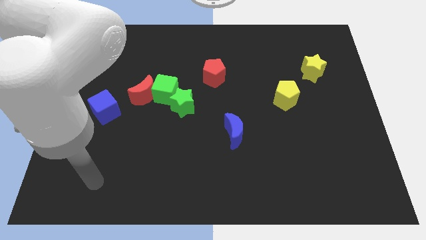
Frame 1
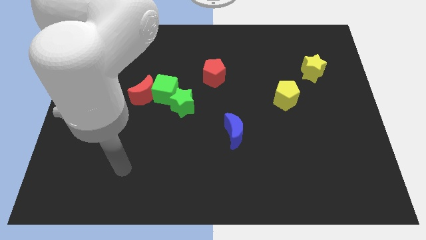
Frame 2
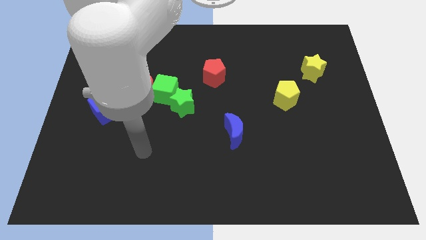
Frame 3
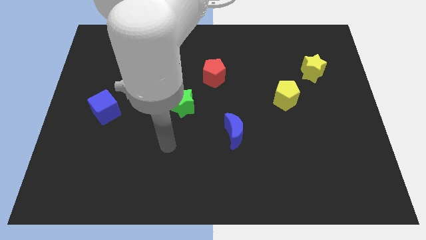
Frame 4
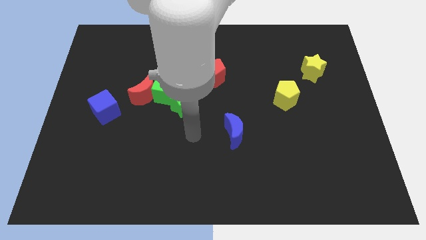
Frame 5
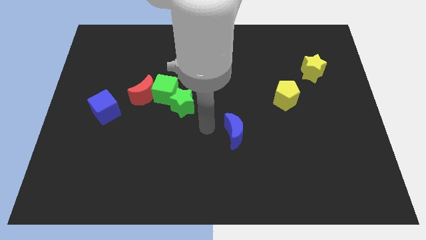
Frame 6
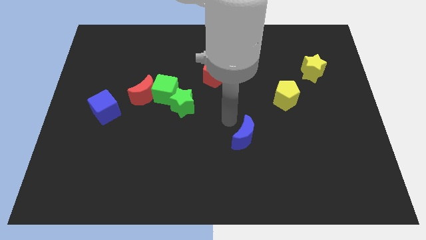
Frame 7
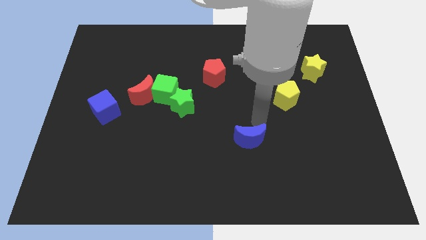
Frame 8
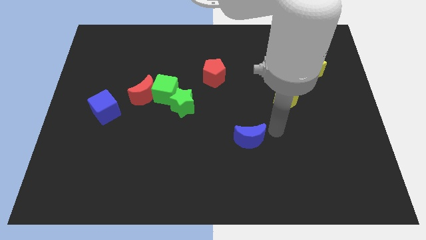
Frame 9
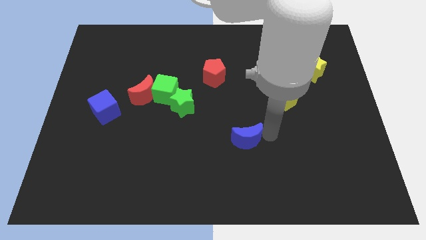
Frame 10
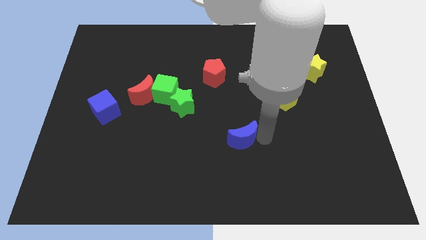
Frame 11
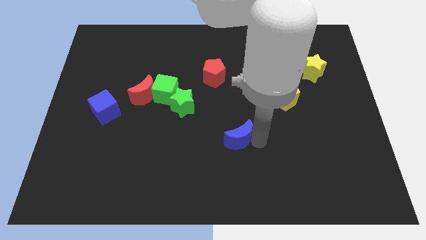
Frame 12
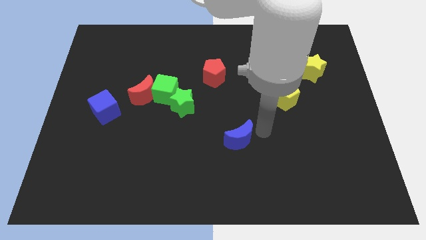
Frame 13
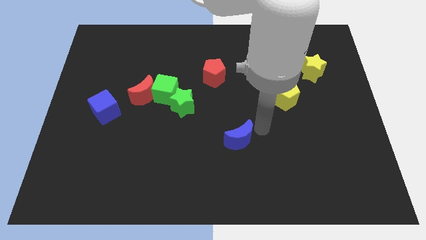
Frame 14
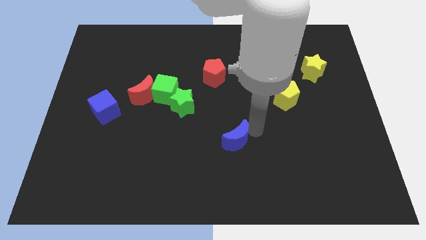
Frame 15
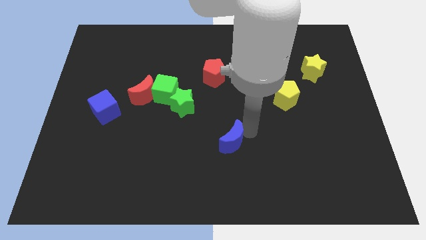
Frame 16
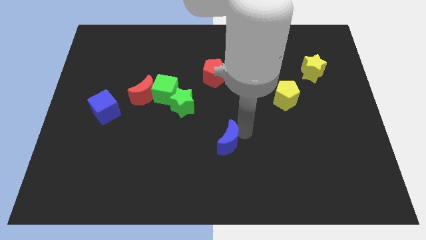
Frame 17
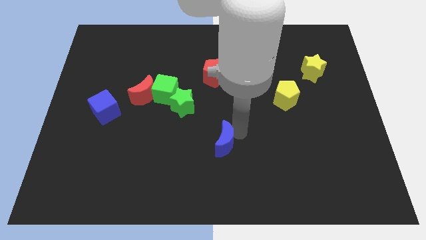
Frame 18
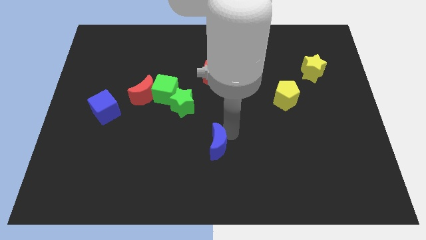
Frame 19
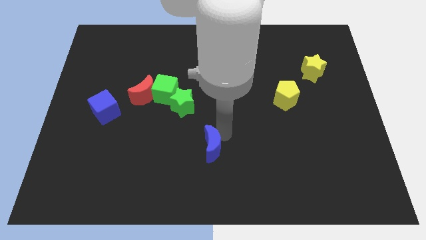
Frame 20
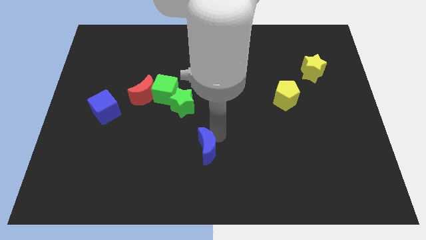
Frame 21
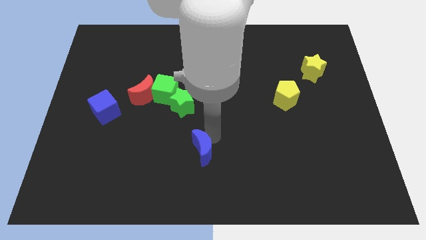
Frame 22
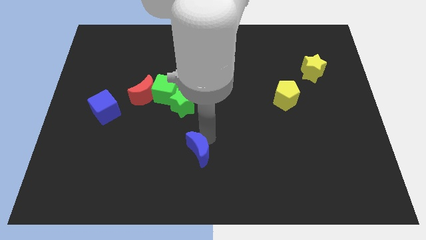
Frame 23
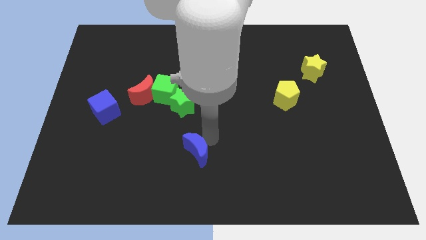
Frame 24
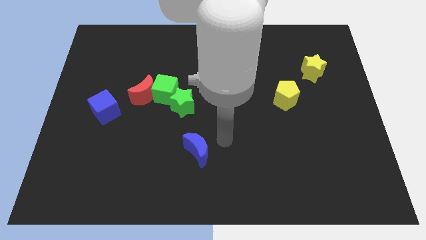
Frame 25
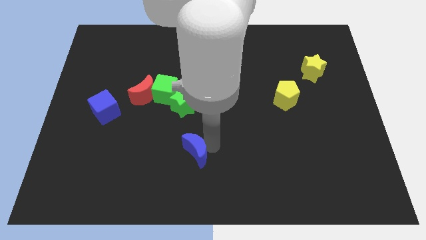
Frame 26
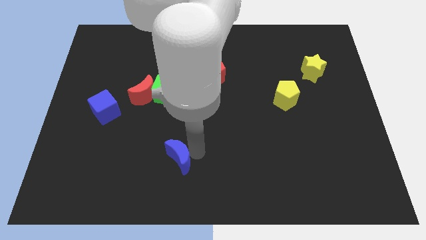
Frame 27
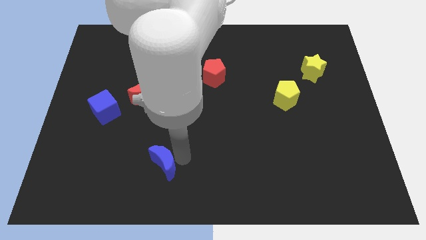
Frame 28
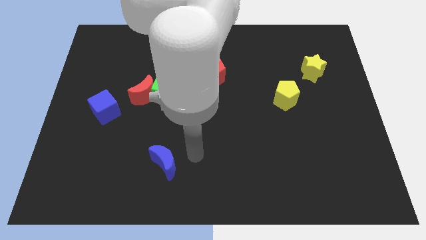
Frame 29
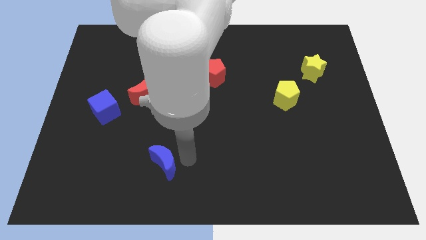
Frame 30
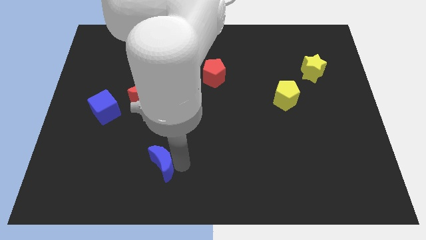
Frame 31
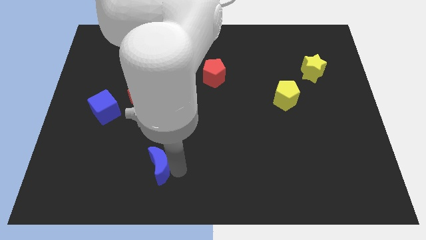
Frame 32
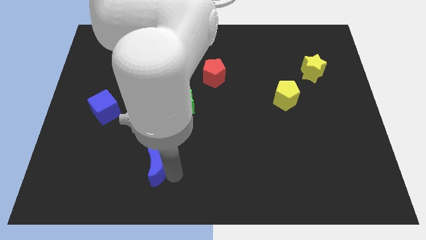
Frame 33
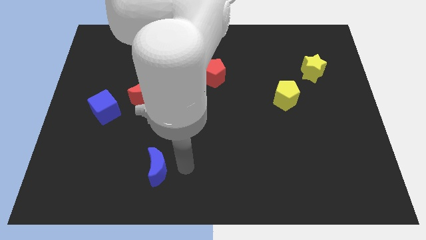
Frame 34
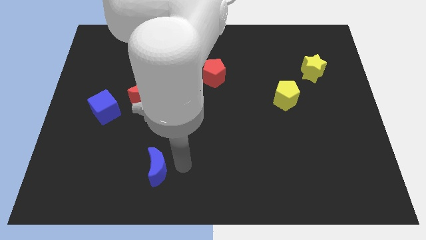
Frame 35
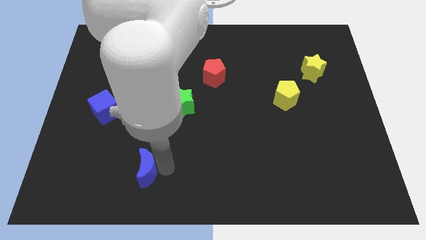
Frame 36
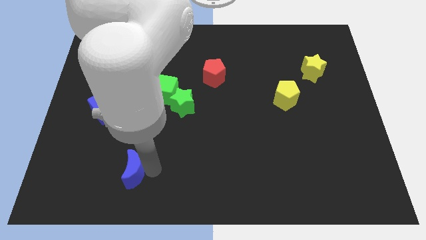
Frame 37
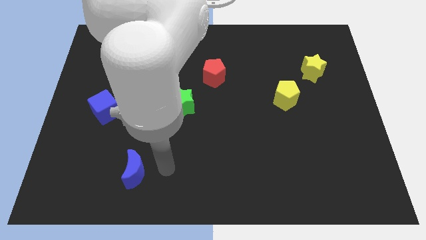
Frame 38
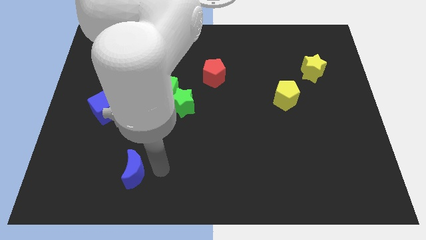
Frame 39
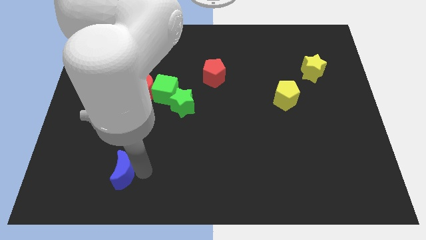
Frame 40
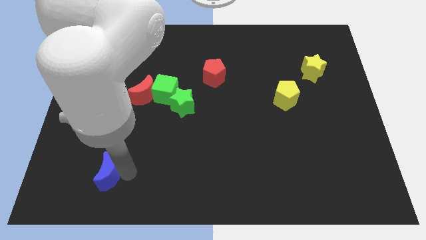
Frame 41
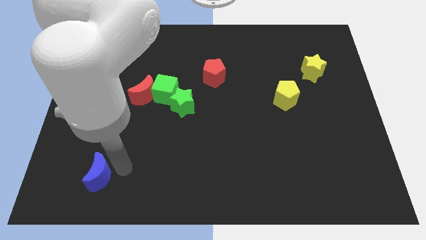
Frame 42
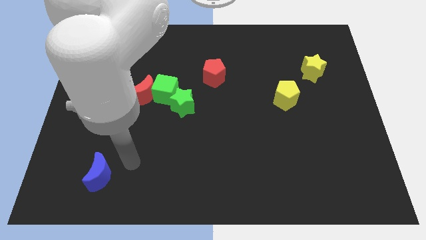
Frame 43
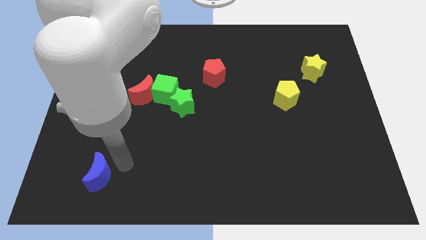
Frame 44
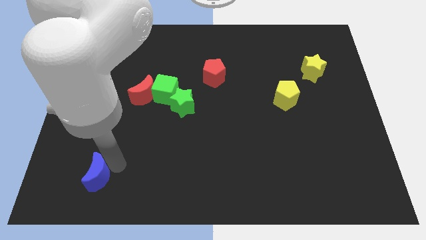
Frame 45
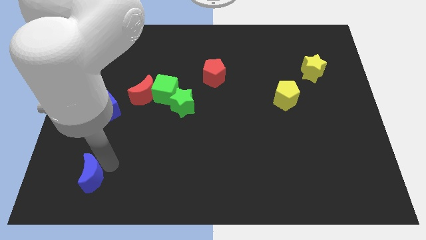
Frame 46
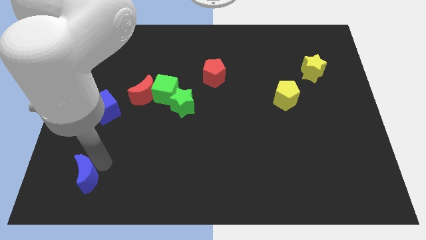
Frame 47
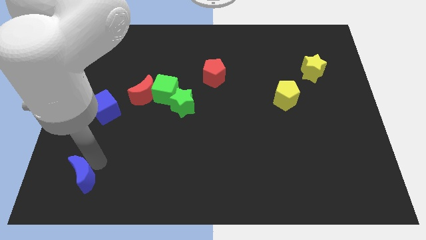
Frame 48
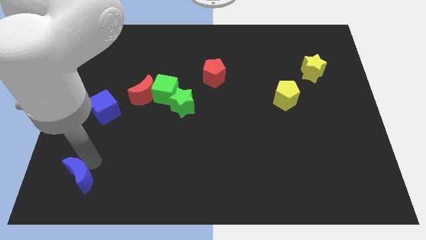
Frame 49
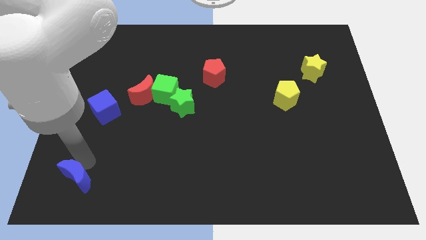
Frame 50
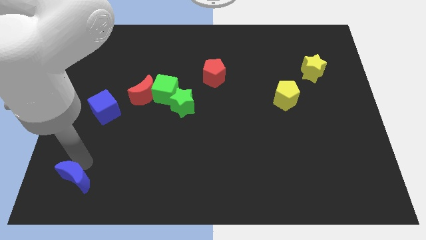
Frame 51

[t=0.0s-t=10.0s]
move the blue moon to the lower left corner

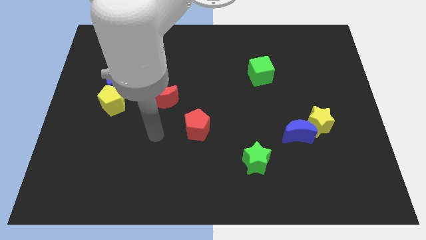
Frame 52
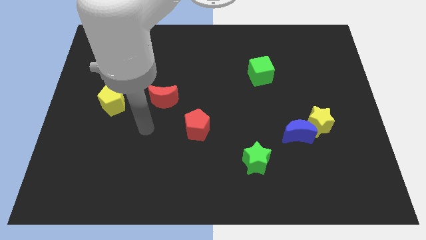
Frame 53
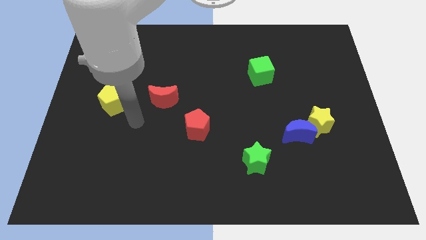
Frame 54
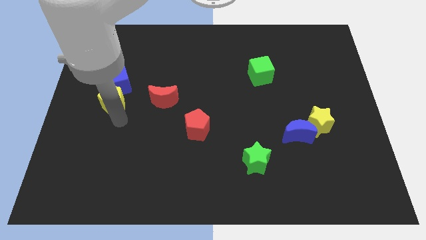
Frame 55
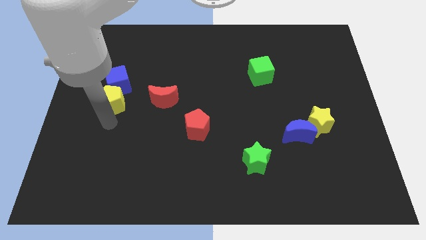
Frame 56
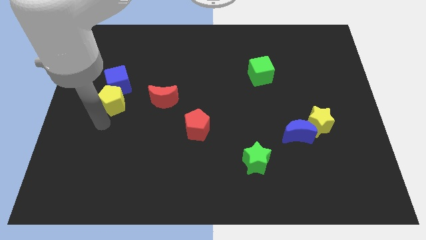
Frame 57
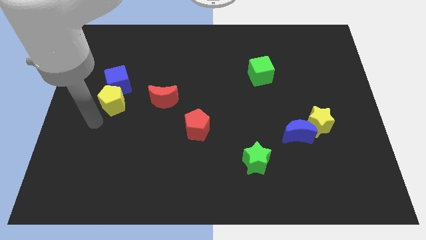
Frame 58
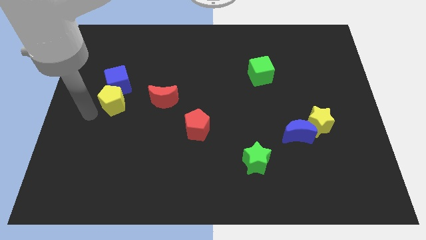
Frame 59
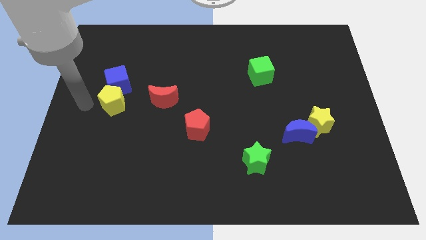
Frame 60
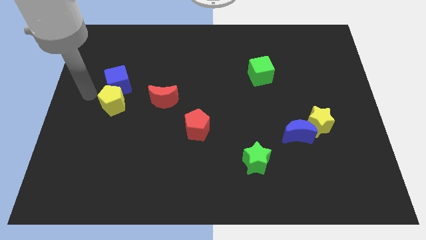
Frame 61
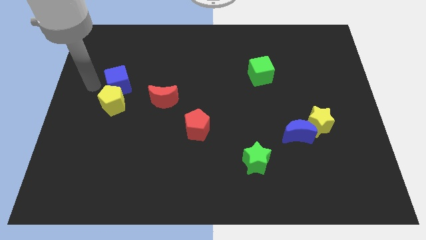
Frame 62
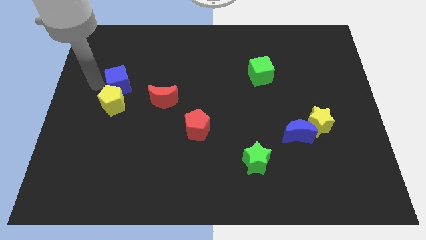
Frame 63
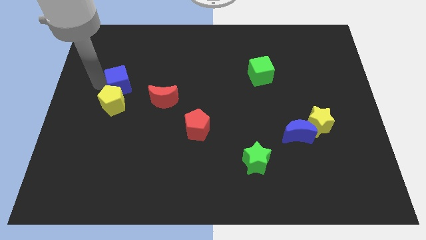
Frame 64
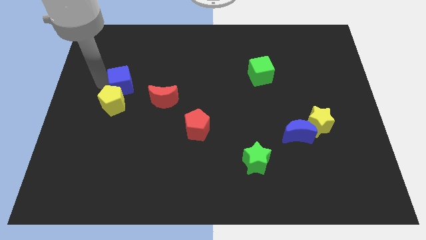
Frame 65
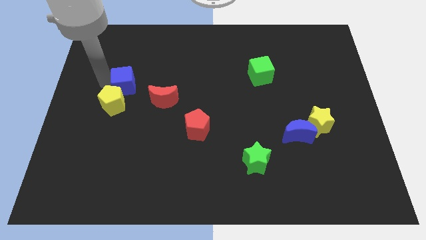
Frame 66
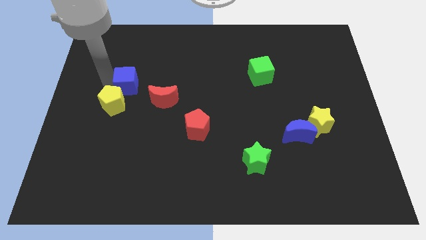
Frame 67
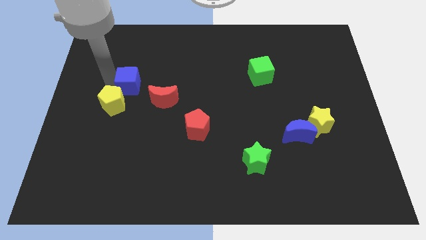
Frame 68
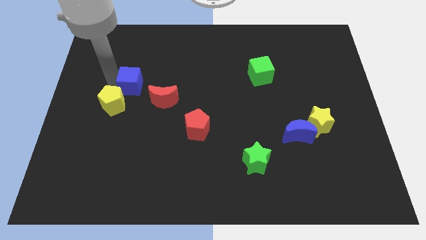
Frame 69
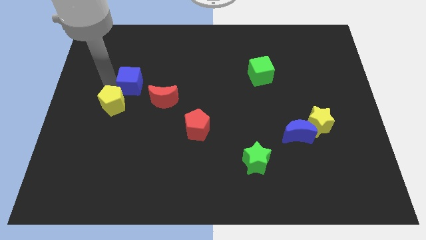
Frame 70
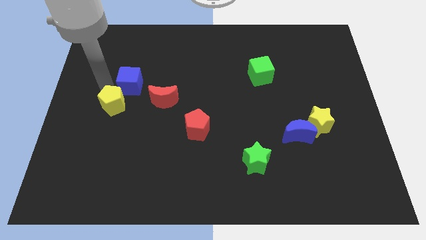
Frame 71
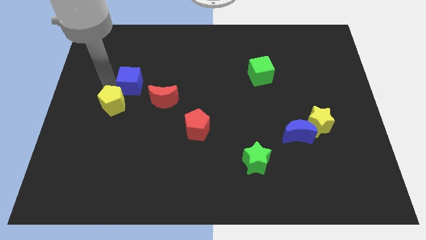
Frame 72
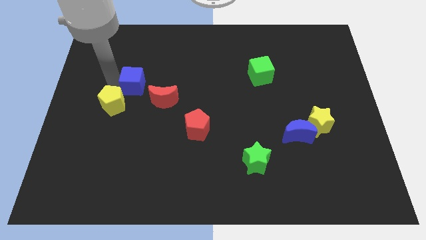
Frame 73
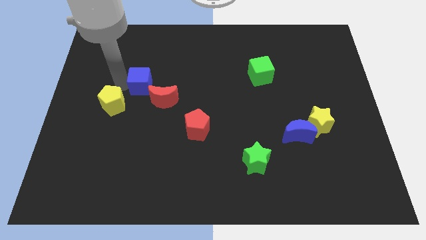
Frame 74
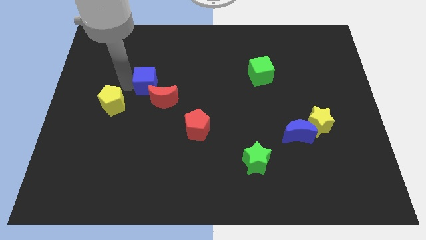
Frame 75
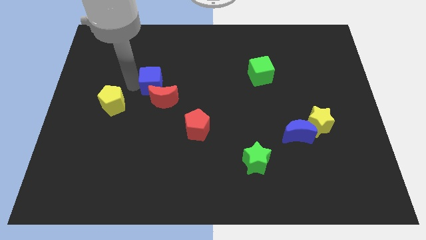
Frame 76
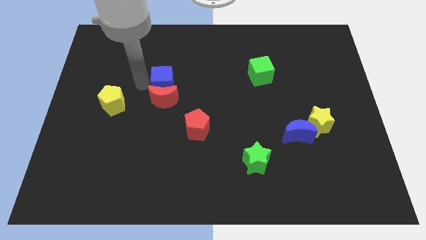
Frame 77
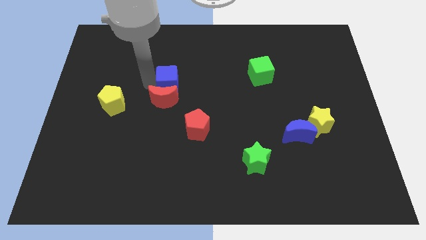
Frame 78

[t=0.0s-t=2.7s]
move the blue cube to the center
